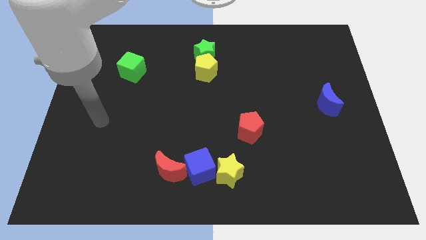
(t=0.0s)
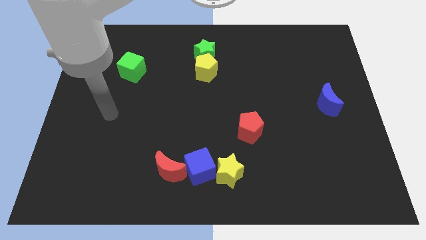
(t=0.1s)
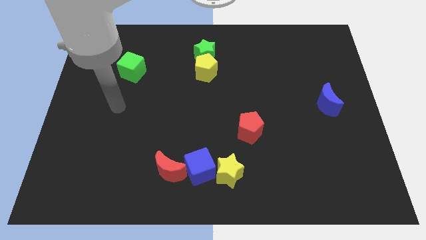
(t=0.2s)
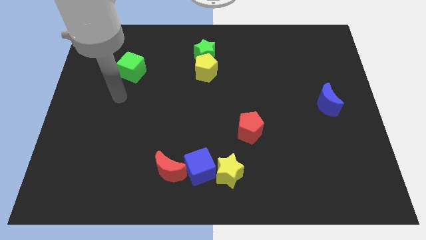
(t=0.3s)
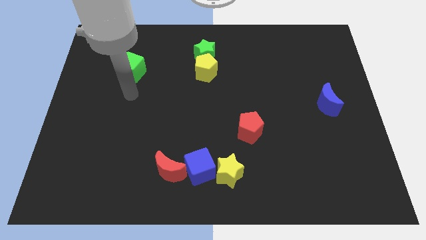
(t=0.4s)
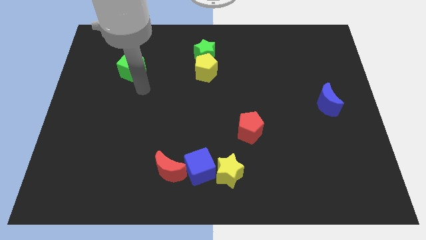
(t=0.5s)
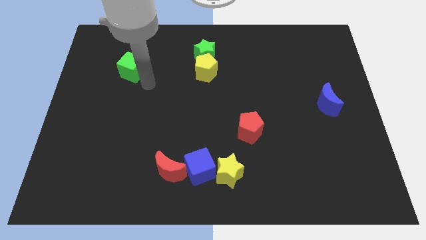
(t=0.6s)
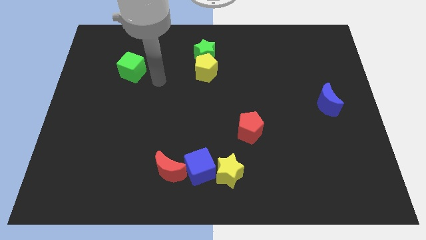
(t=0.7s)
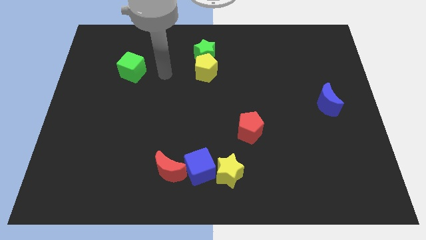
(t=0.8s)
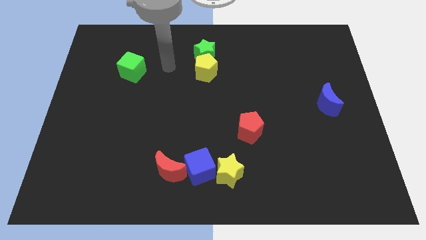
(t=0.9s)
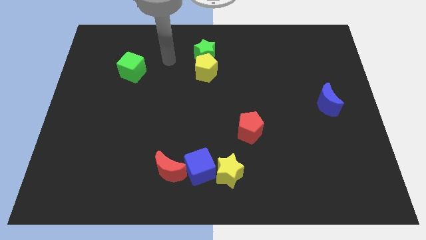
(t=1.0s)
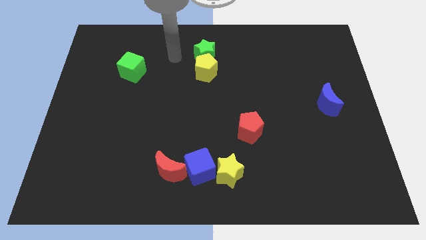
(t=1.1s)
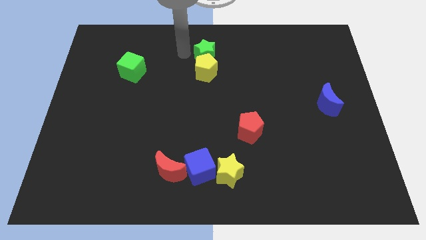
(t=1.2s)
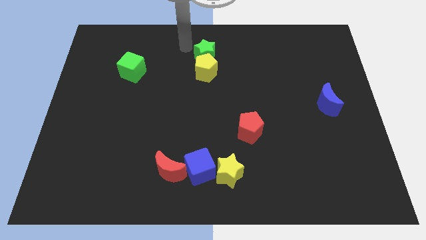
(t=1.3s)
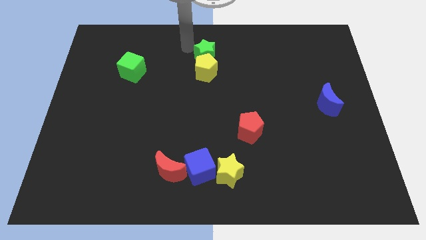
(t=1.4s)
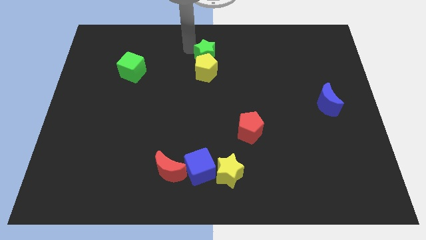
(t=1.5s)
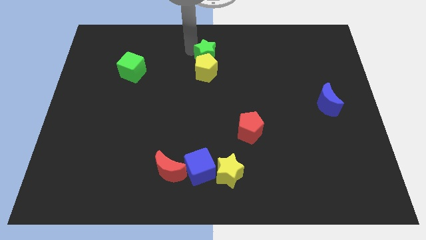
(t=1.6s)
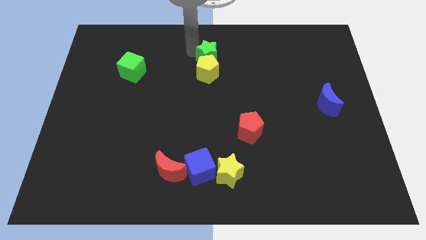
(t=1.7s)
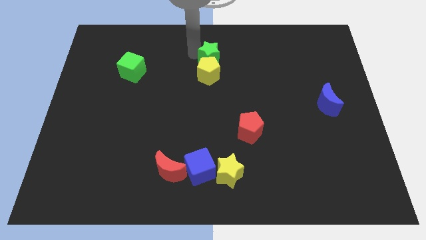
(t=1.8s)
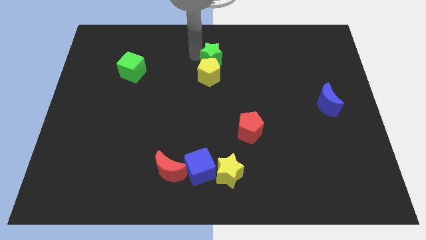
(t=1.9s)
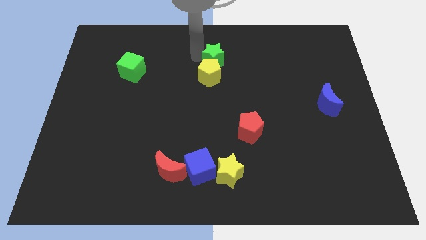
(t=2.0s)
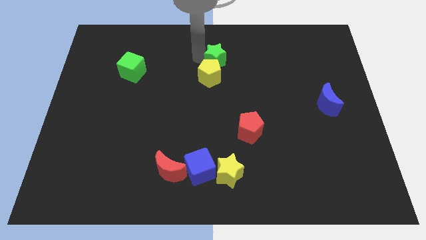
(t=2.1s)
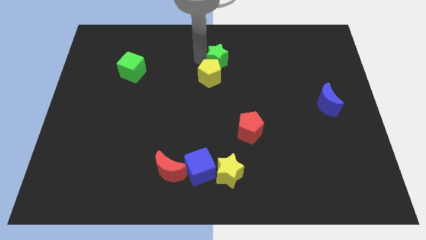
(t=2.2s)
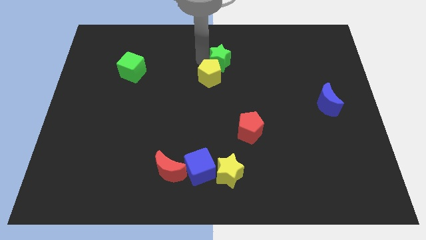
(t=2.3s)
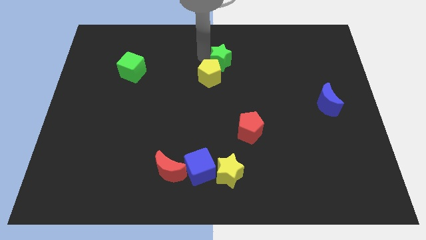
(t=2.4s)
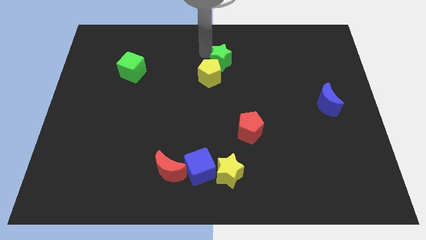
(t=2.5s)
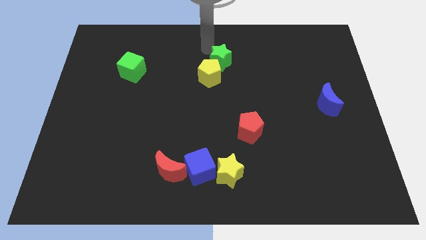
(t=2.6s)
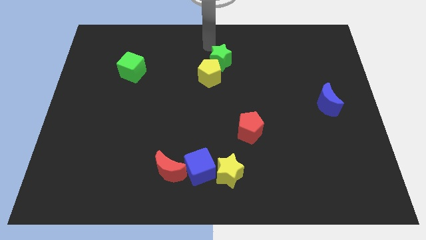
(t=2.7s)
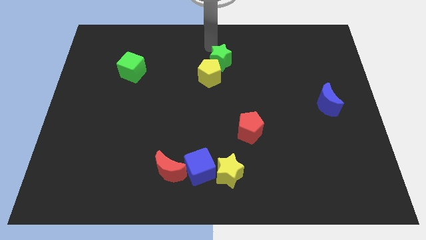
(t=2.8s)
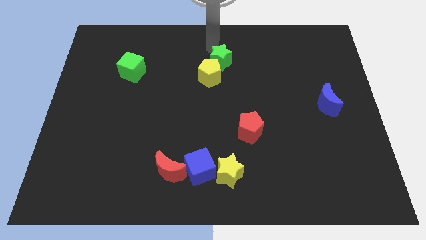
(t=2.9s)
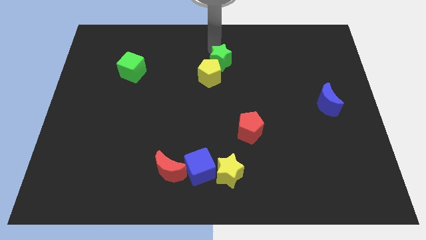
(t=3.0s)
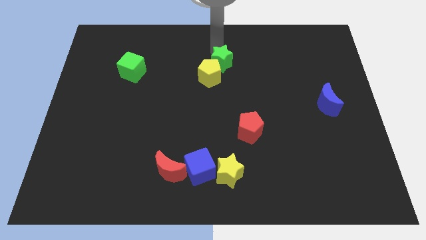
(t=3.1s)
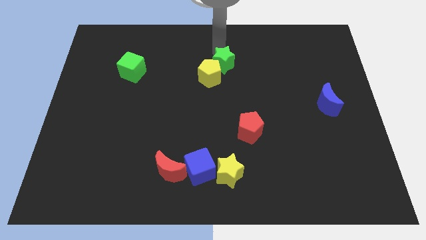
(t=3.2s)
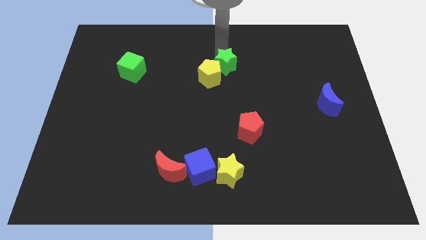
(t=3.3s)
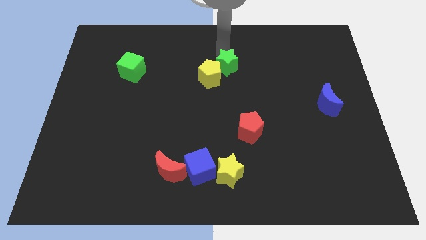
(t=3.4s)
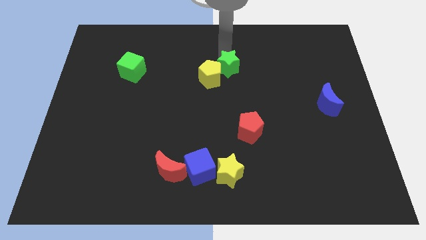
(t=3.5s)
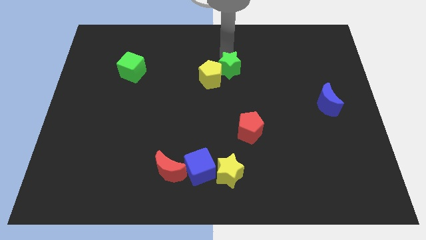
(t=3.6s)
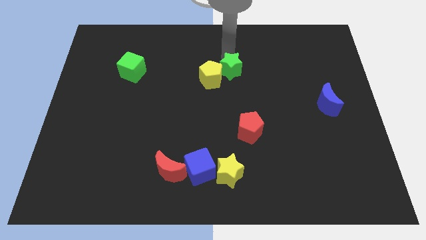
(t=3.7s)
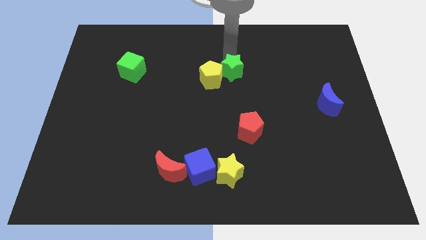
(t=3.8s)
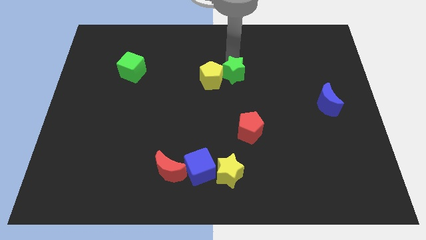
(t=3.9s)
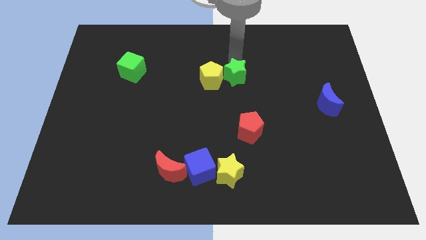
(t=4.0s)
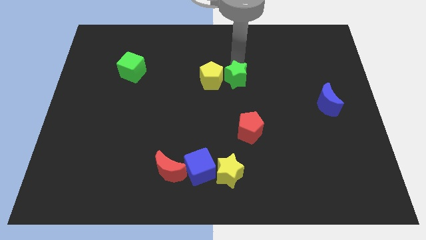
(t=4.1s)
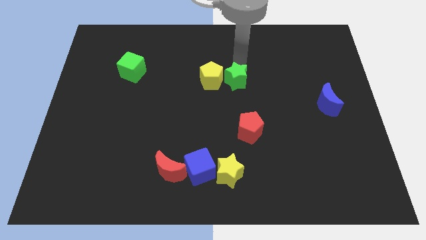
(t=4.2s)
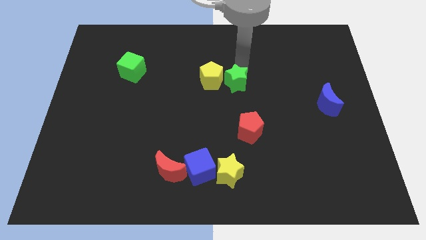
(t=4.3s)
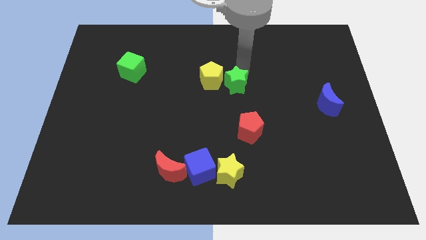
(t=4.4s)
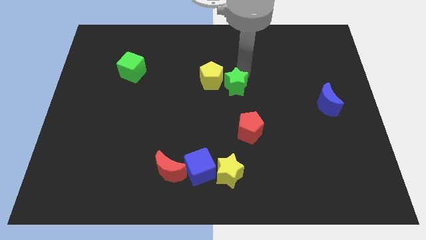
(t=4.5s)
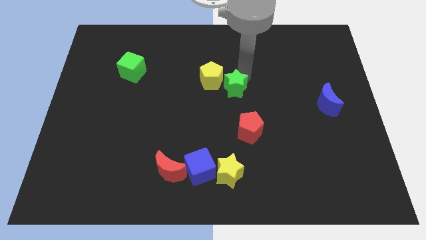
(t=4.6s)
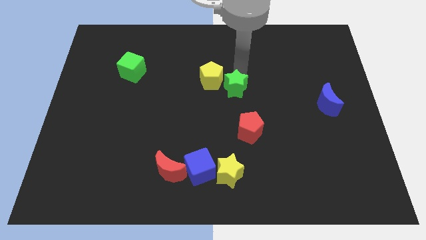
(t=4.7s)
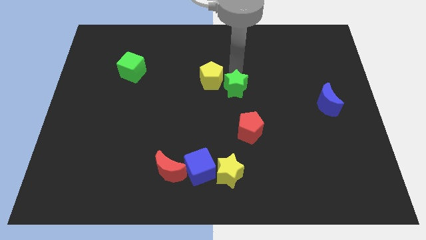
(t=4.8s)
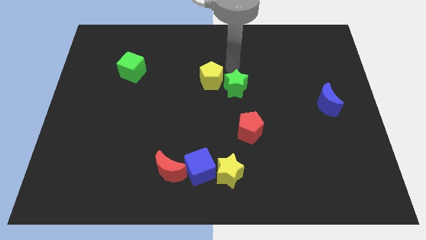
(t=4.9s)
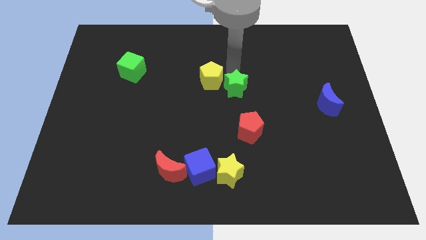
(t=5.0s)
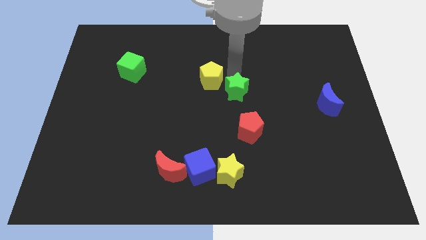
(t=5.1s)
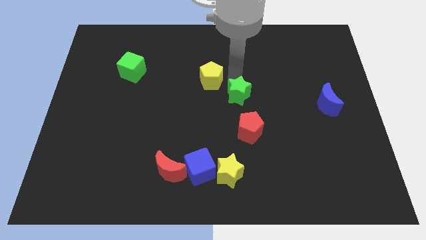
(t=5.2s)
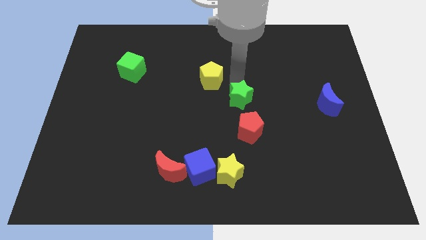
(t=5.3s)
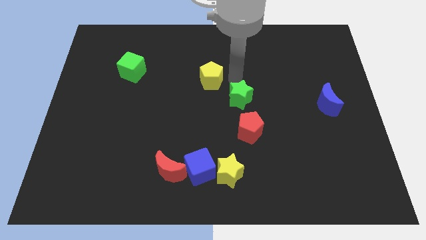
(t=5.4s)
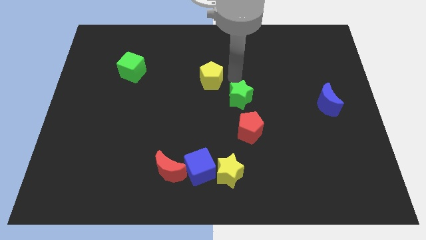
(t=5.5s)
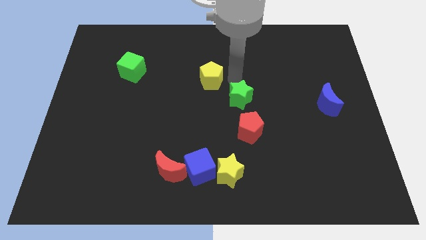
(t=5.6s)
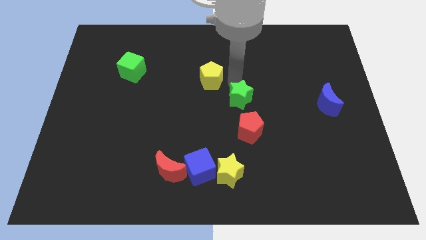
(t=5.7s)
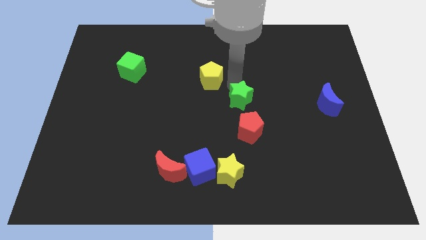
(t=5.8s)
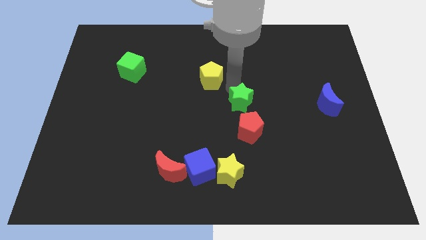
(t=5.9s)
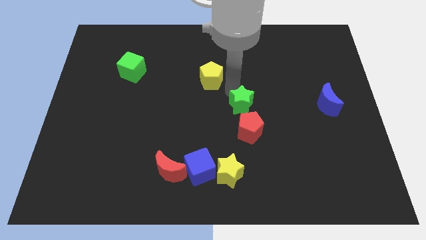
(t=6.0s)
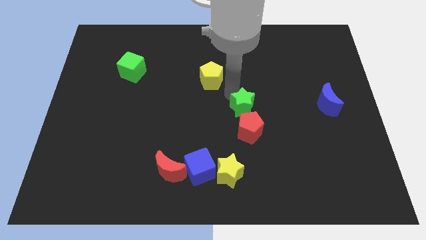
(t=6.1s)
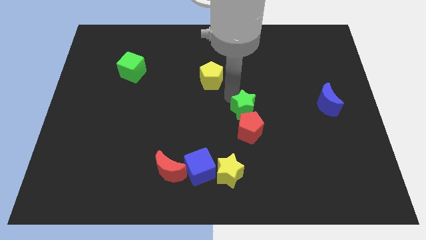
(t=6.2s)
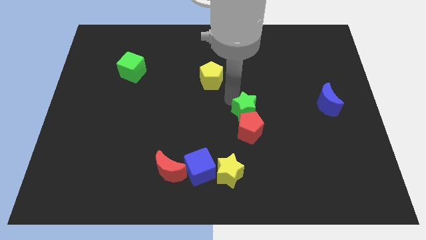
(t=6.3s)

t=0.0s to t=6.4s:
put the green star next to the red pentagon
